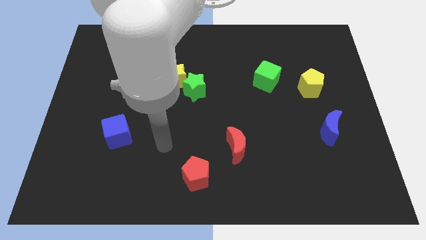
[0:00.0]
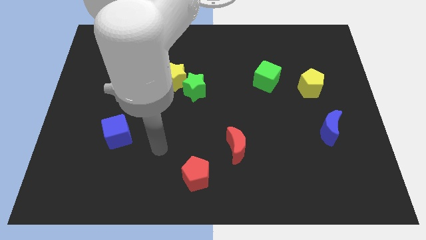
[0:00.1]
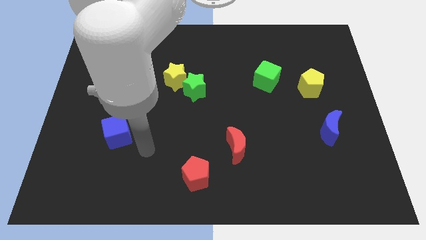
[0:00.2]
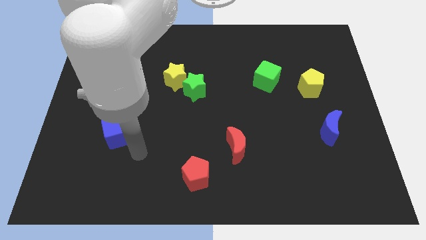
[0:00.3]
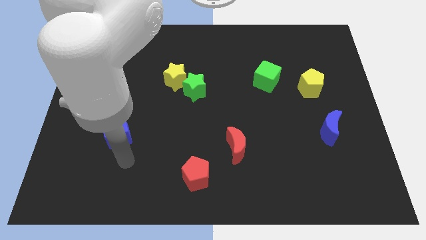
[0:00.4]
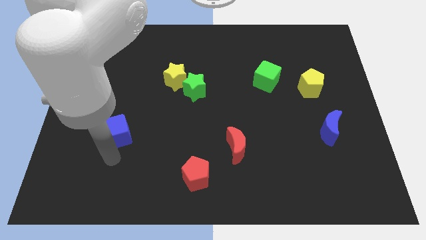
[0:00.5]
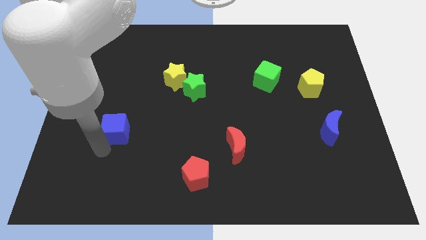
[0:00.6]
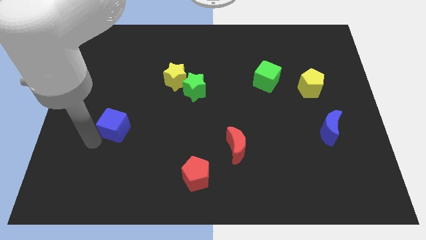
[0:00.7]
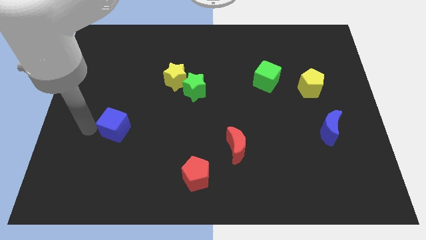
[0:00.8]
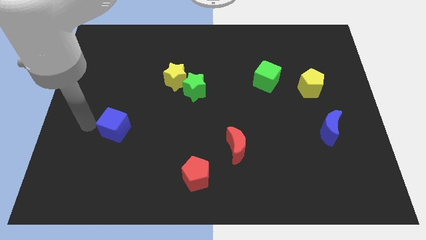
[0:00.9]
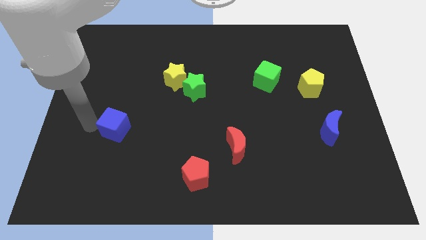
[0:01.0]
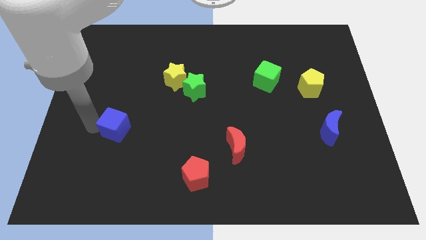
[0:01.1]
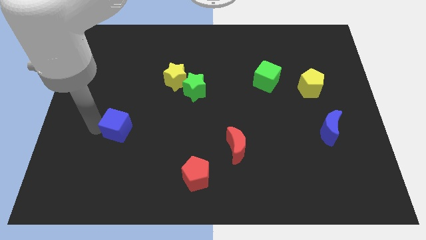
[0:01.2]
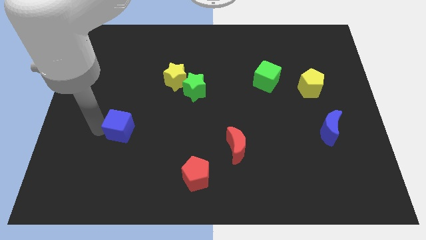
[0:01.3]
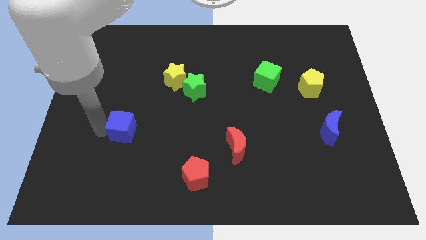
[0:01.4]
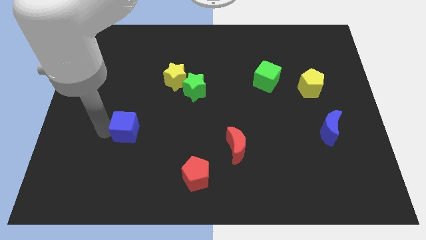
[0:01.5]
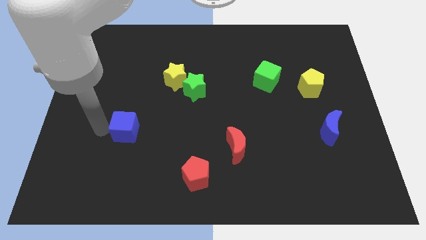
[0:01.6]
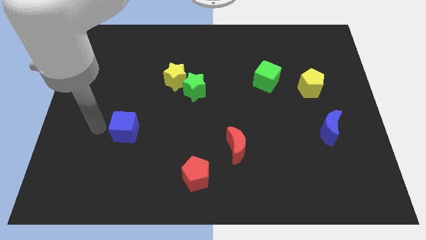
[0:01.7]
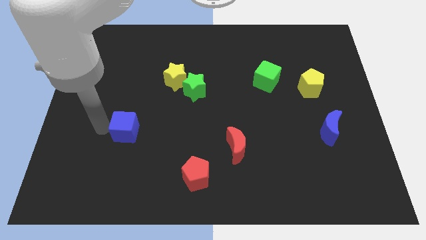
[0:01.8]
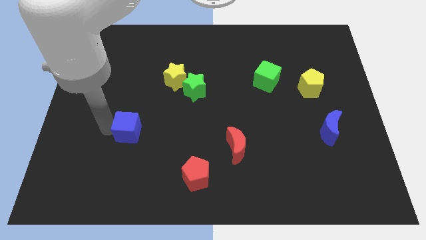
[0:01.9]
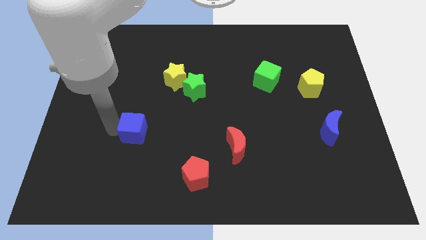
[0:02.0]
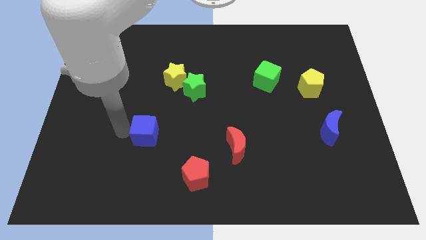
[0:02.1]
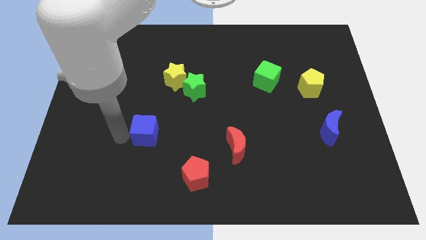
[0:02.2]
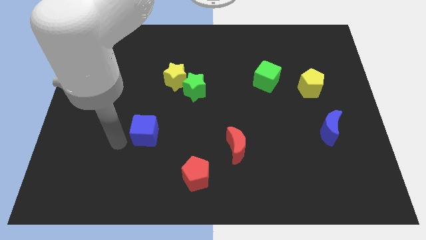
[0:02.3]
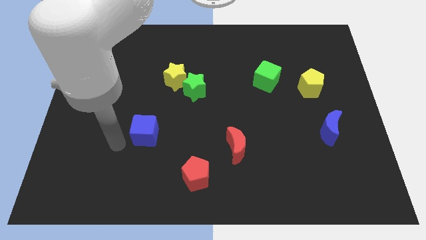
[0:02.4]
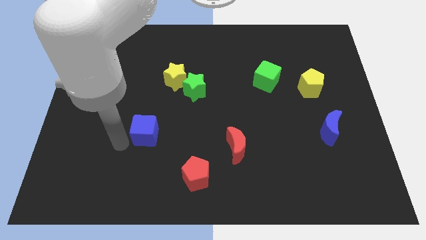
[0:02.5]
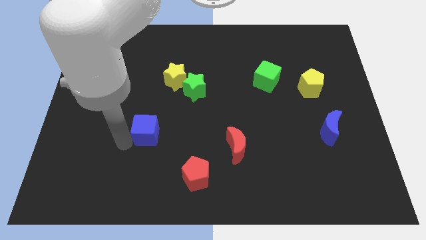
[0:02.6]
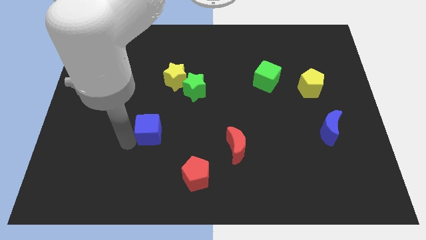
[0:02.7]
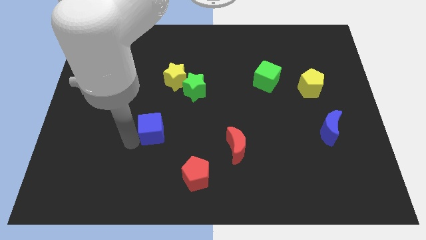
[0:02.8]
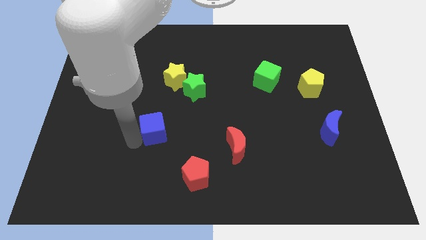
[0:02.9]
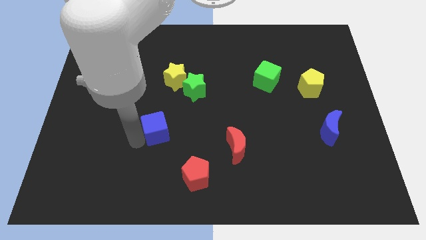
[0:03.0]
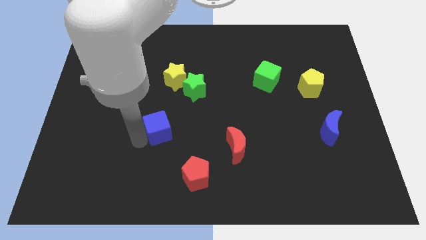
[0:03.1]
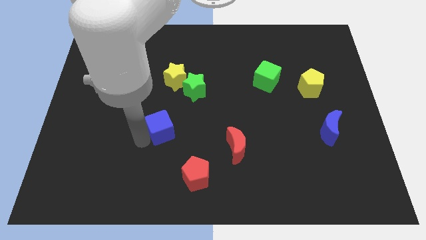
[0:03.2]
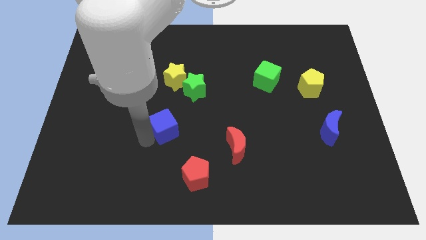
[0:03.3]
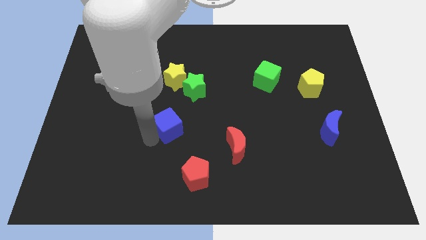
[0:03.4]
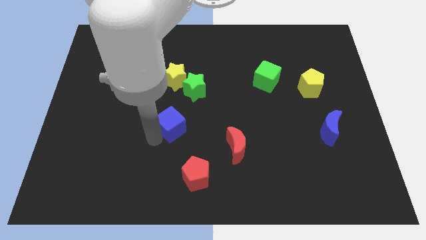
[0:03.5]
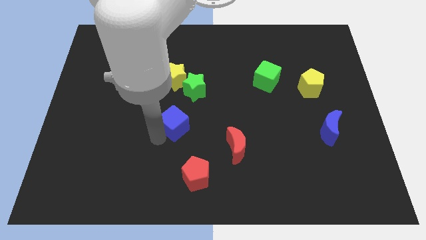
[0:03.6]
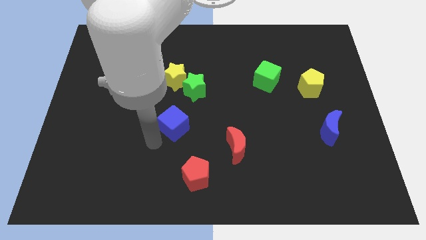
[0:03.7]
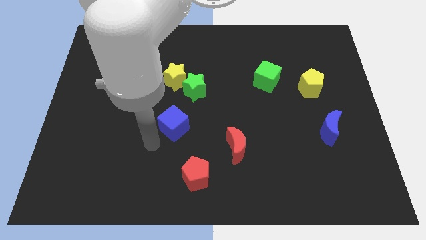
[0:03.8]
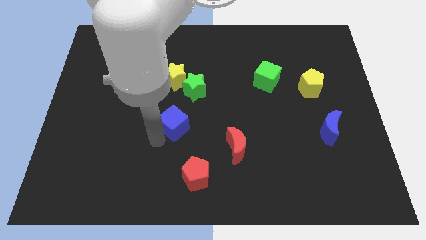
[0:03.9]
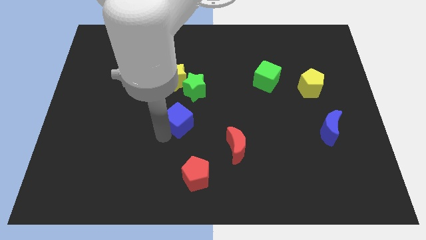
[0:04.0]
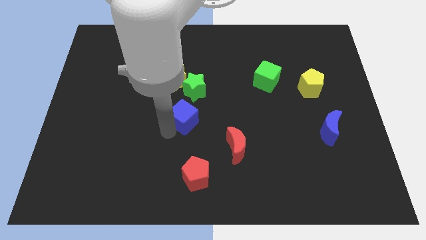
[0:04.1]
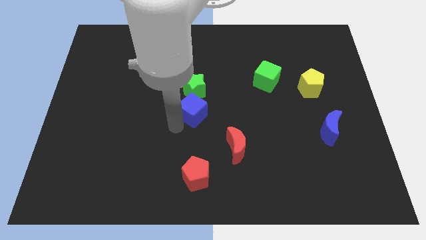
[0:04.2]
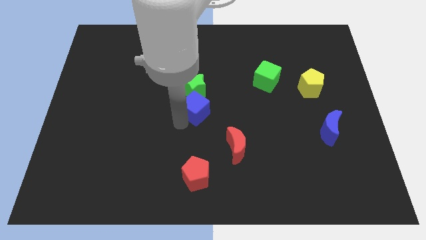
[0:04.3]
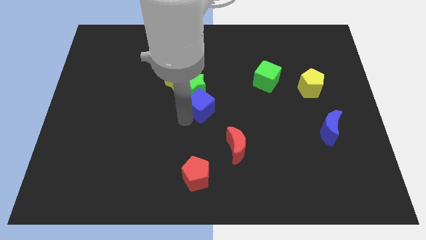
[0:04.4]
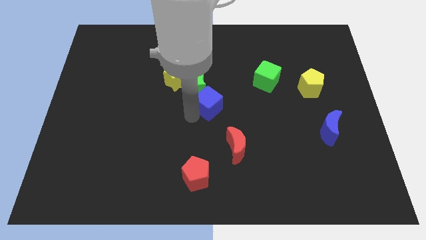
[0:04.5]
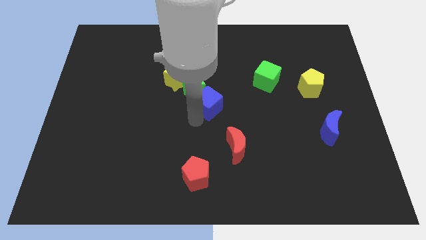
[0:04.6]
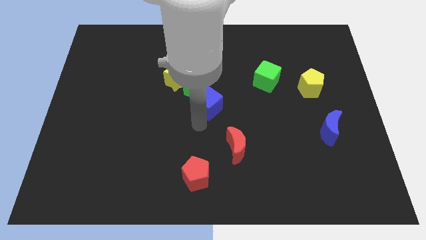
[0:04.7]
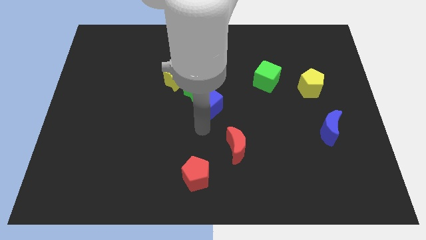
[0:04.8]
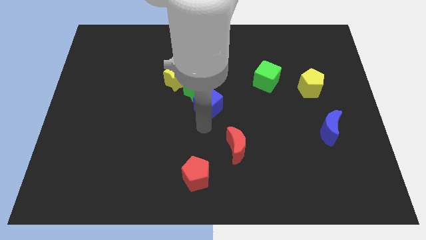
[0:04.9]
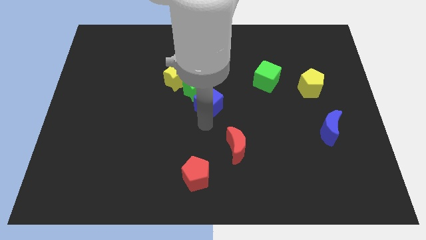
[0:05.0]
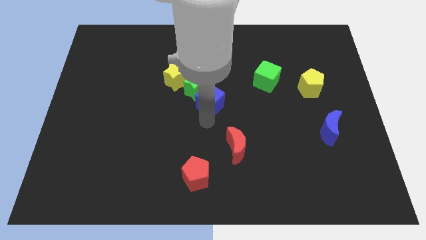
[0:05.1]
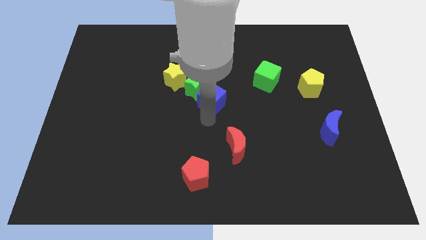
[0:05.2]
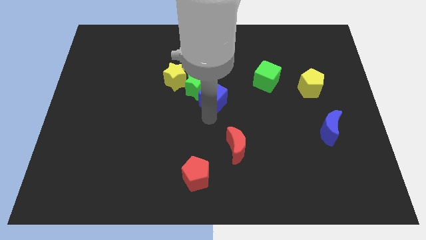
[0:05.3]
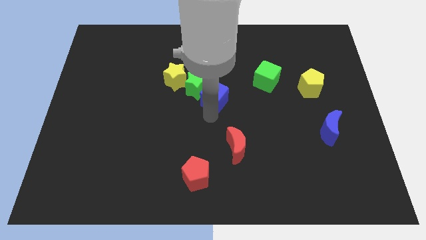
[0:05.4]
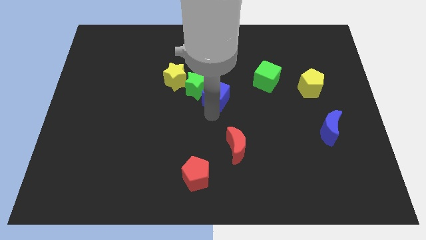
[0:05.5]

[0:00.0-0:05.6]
slide the blue cube upwards and then right

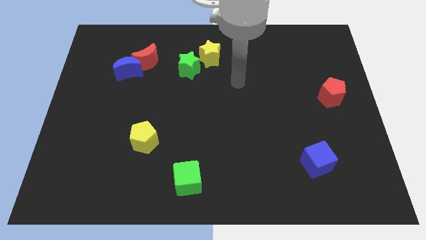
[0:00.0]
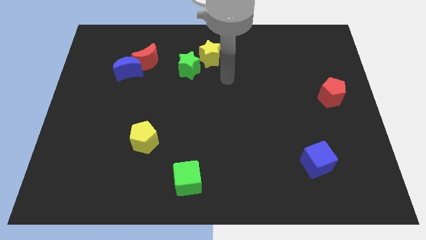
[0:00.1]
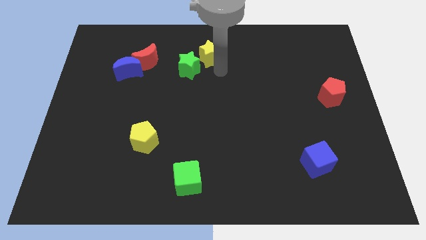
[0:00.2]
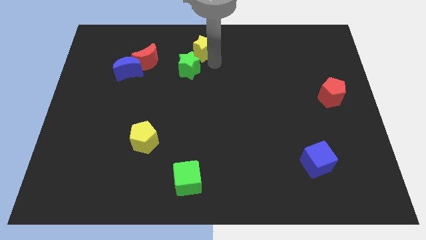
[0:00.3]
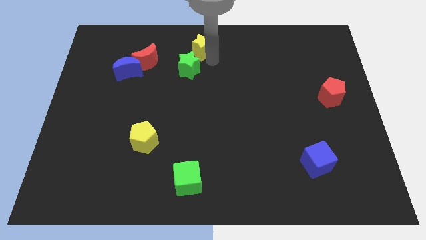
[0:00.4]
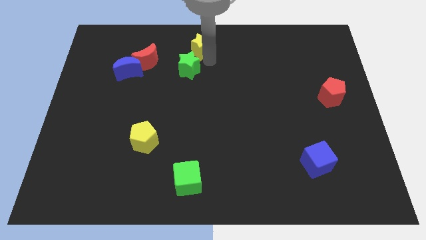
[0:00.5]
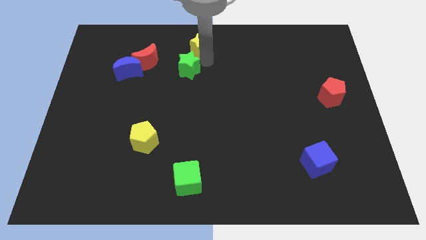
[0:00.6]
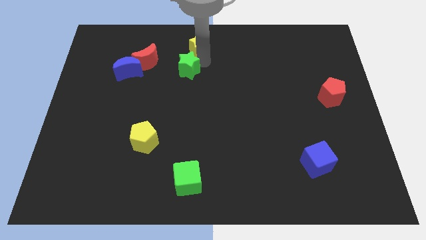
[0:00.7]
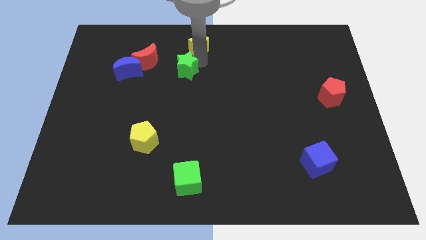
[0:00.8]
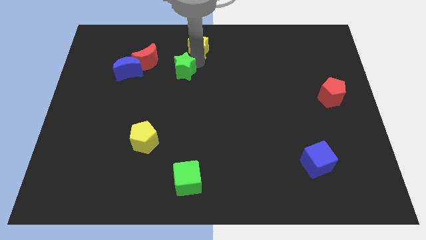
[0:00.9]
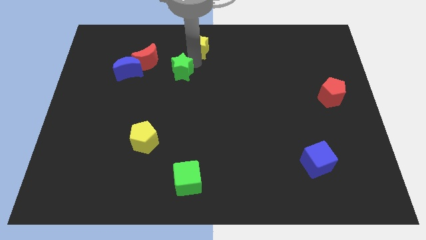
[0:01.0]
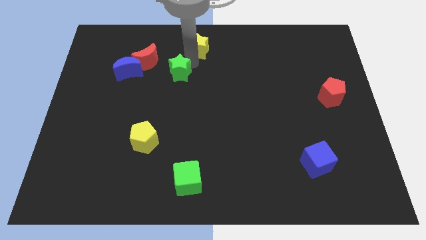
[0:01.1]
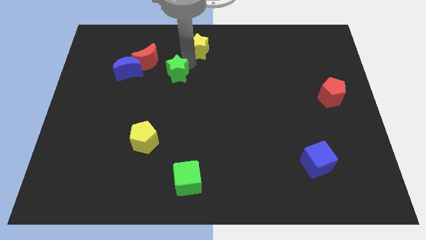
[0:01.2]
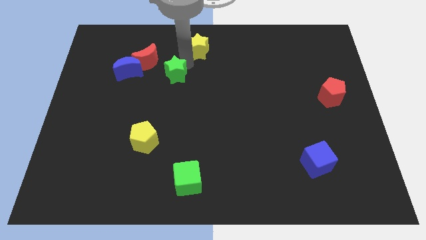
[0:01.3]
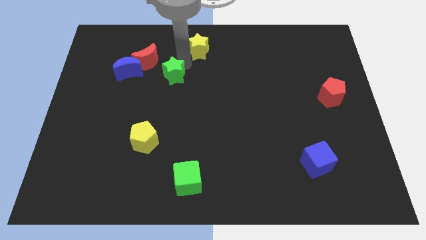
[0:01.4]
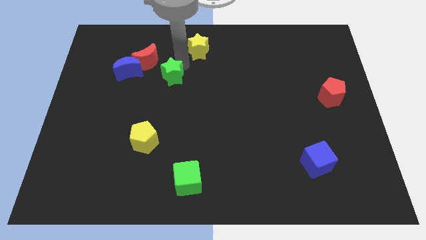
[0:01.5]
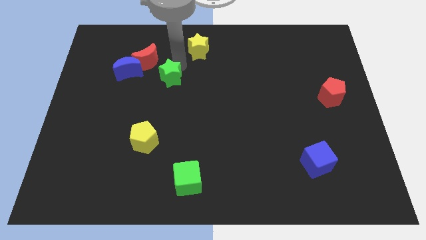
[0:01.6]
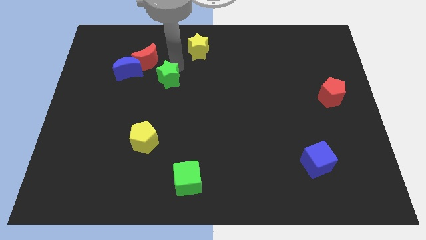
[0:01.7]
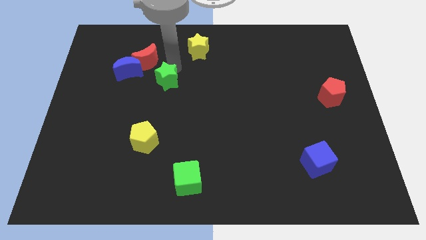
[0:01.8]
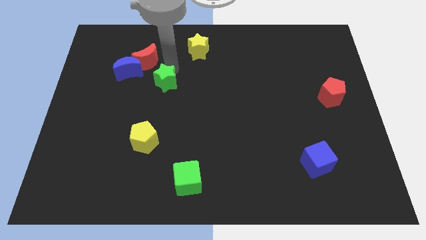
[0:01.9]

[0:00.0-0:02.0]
push the green star slightly down and left

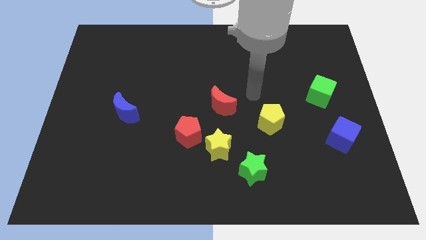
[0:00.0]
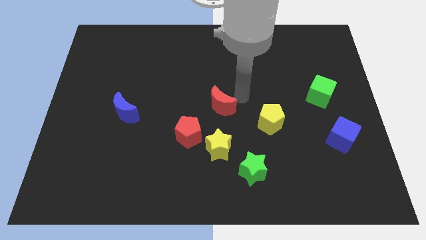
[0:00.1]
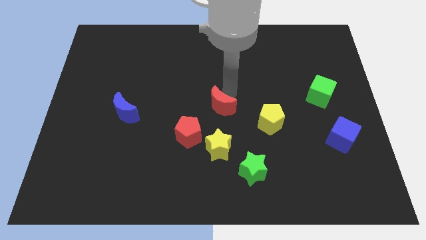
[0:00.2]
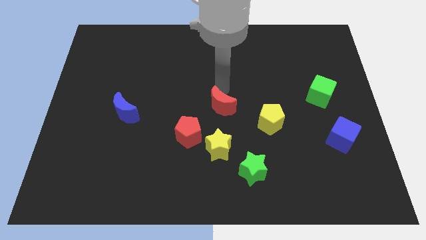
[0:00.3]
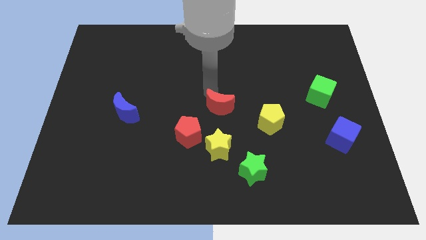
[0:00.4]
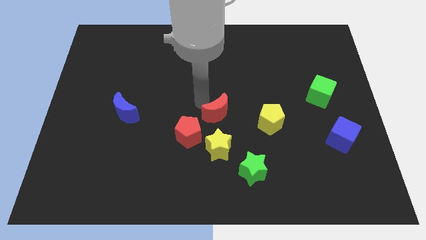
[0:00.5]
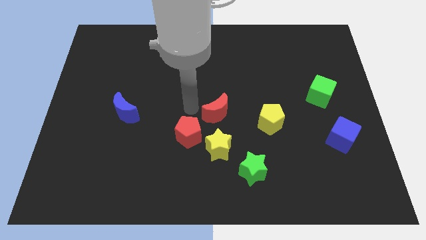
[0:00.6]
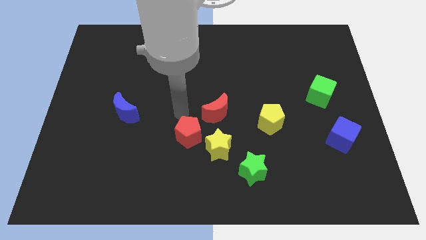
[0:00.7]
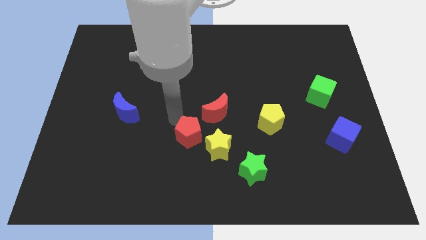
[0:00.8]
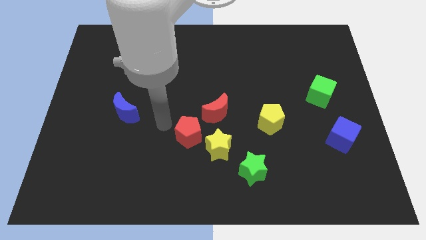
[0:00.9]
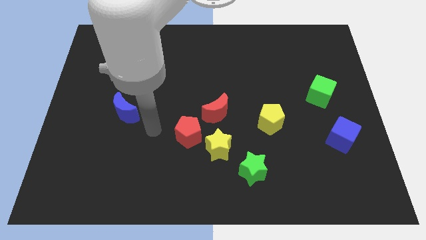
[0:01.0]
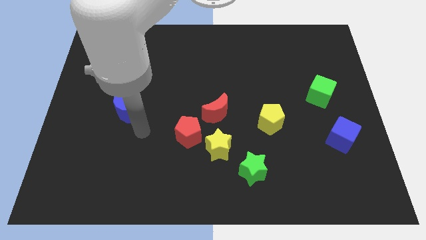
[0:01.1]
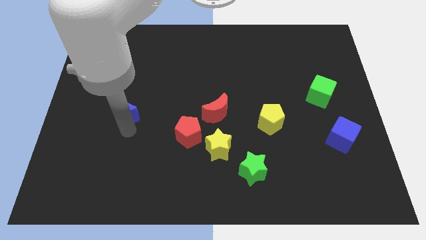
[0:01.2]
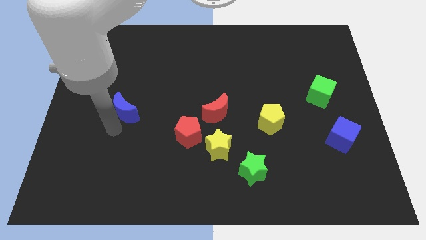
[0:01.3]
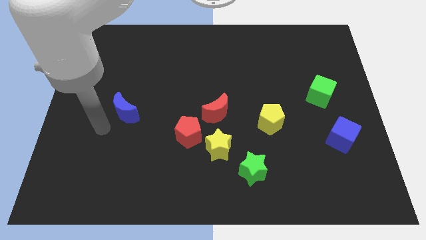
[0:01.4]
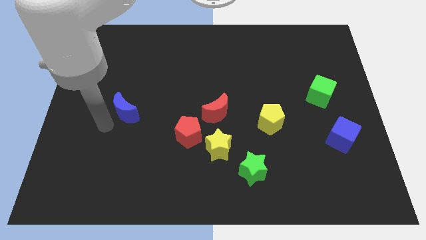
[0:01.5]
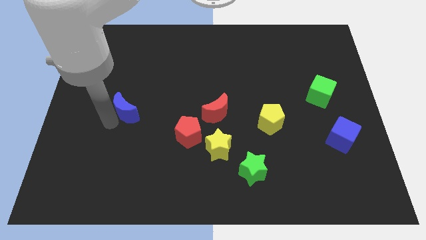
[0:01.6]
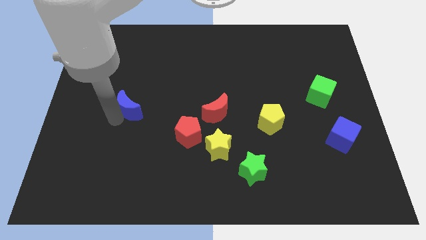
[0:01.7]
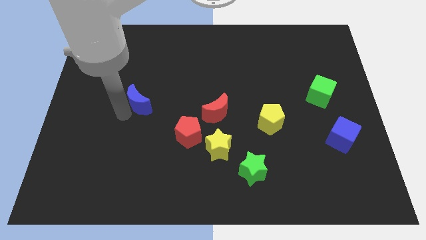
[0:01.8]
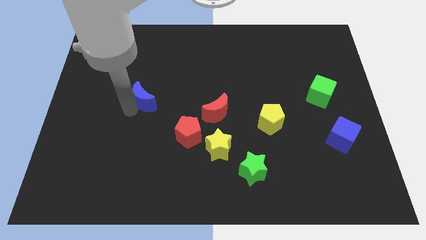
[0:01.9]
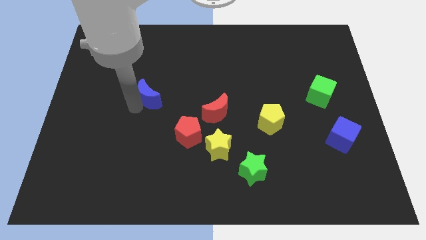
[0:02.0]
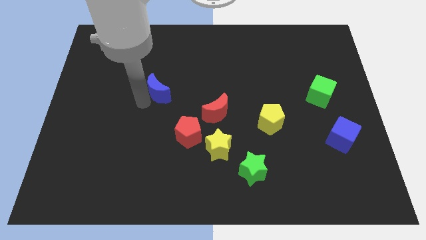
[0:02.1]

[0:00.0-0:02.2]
slightly move the blue moon up and to the right diagonally
